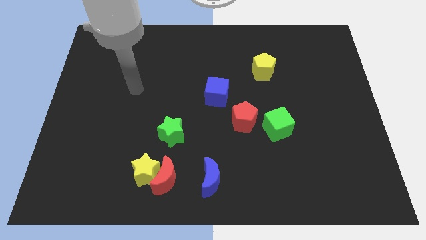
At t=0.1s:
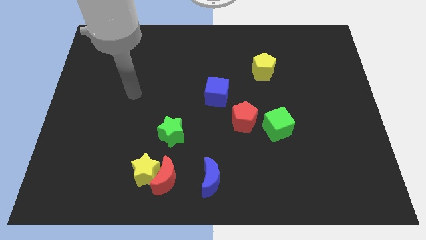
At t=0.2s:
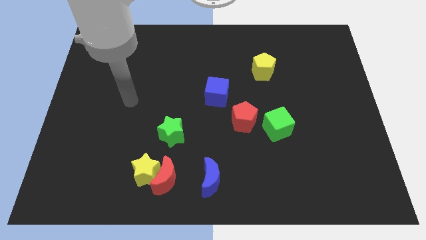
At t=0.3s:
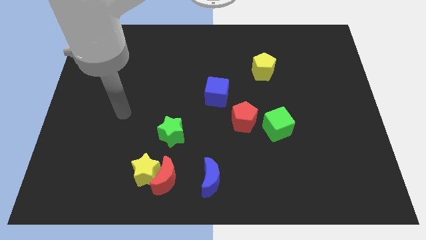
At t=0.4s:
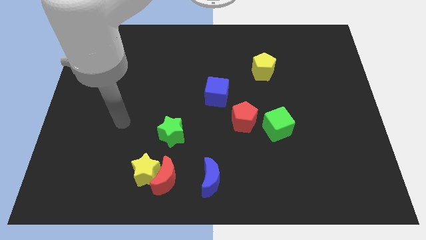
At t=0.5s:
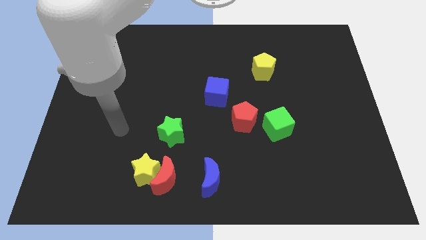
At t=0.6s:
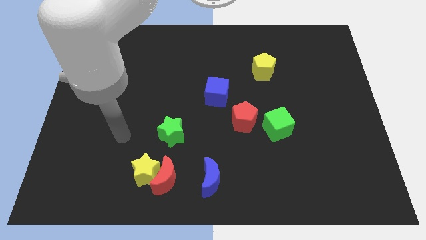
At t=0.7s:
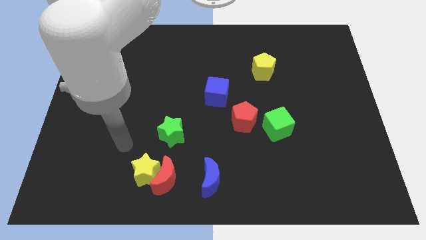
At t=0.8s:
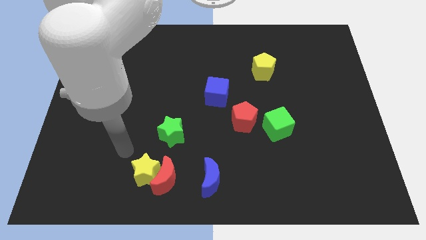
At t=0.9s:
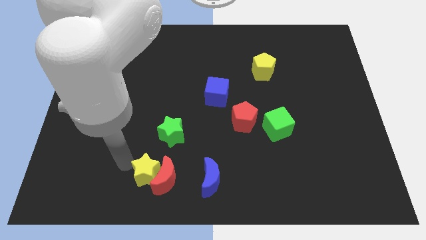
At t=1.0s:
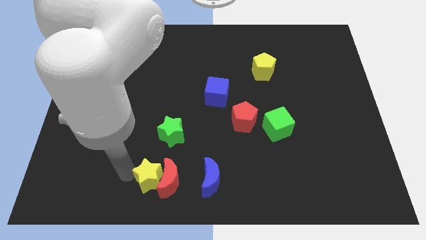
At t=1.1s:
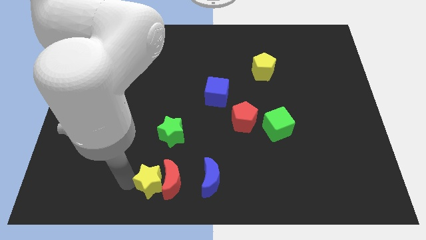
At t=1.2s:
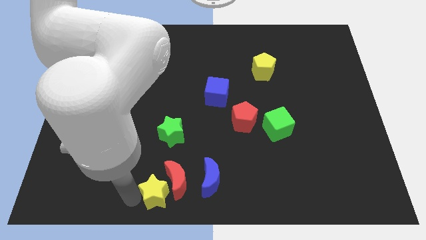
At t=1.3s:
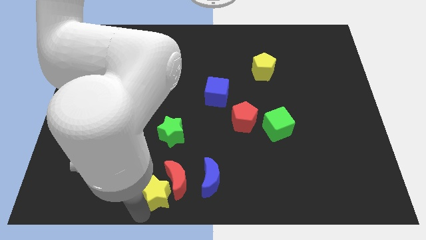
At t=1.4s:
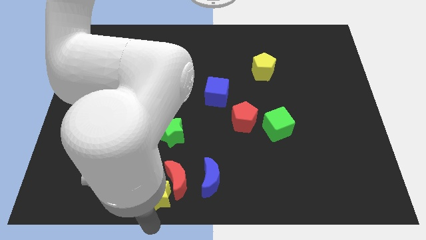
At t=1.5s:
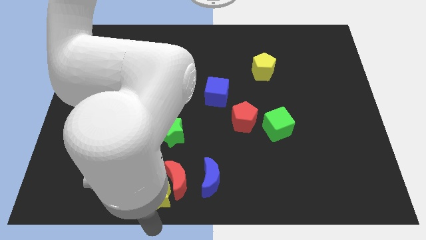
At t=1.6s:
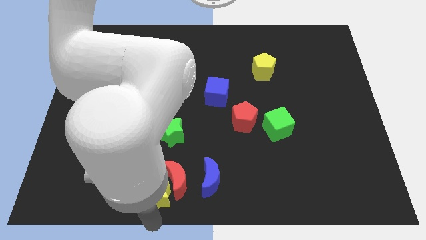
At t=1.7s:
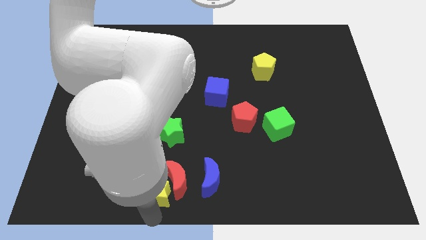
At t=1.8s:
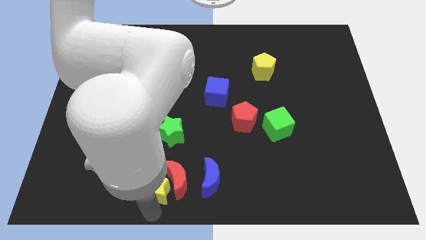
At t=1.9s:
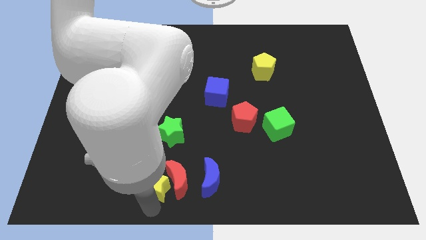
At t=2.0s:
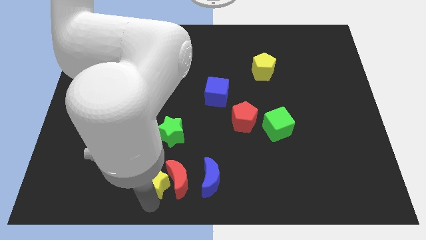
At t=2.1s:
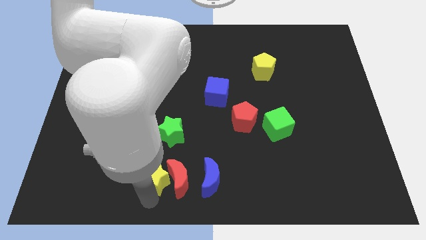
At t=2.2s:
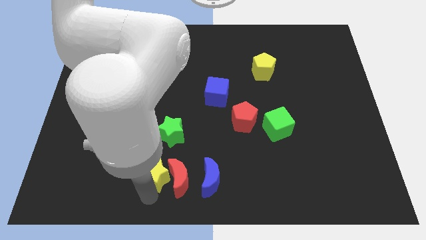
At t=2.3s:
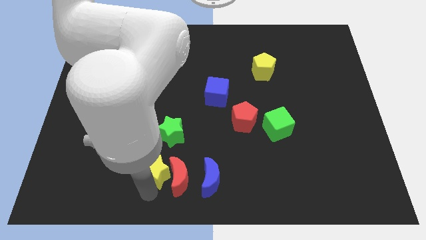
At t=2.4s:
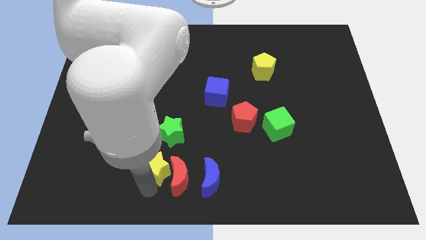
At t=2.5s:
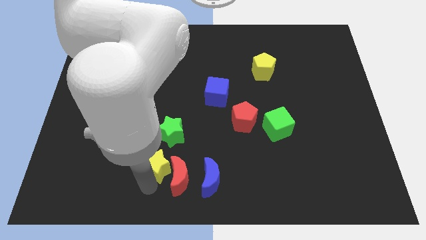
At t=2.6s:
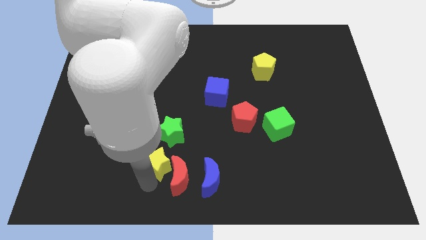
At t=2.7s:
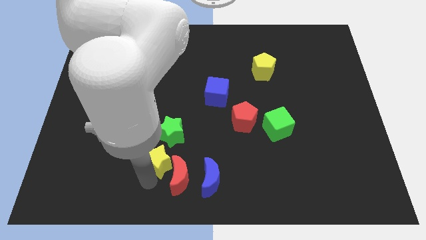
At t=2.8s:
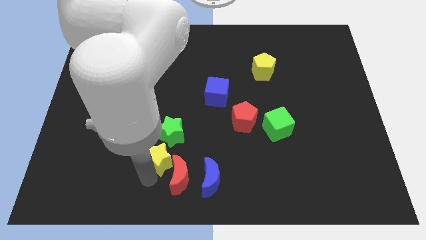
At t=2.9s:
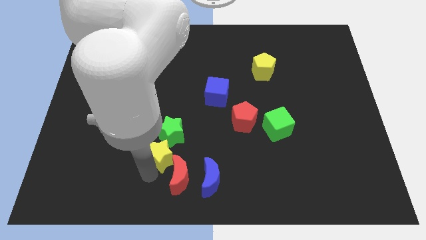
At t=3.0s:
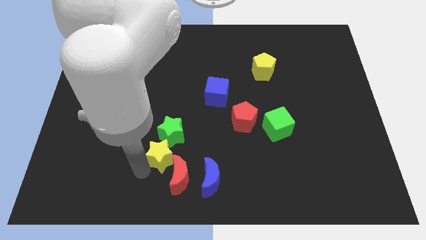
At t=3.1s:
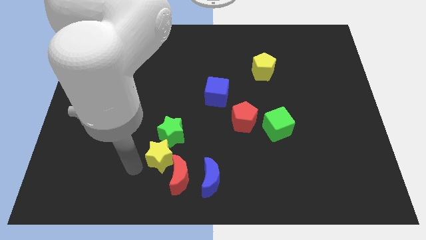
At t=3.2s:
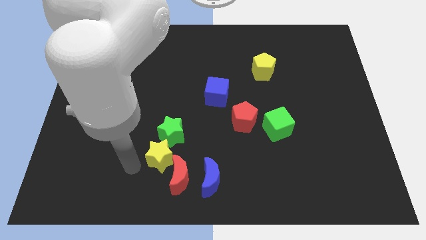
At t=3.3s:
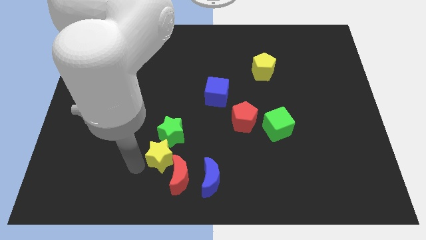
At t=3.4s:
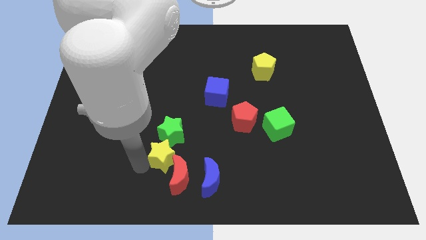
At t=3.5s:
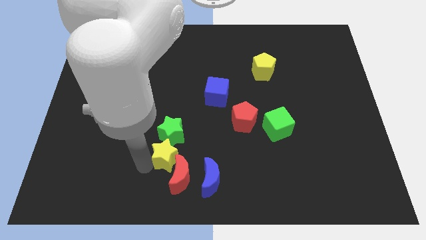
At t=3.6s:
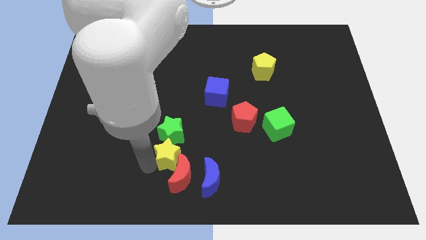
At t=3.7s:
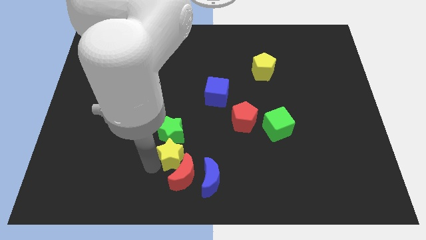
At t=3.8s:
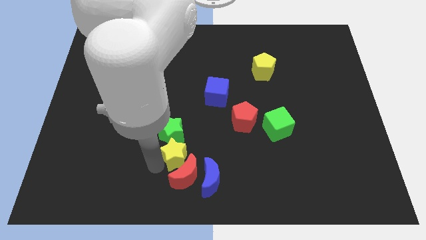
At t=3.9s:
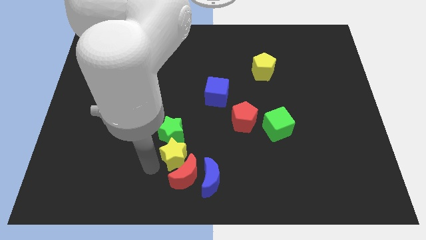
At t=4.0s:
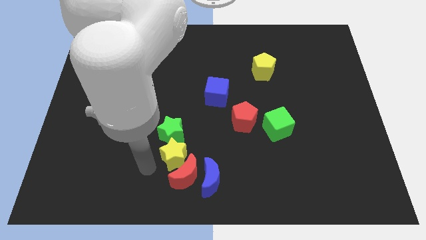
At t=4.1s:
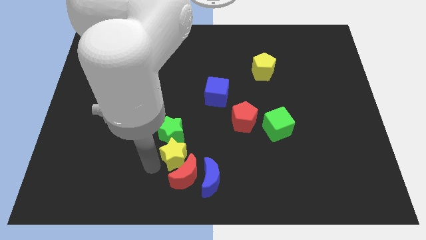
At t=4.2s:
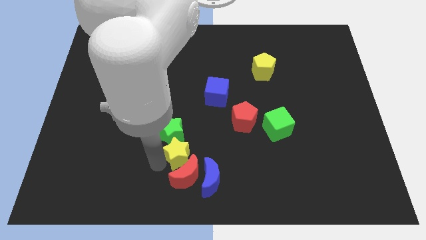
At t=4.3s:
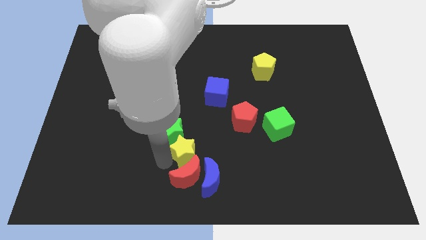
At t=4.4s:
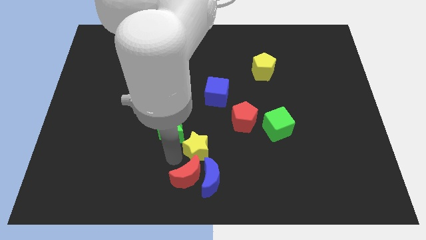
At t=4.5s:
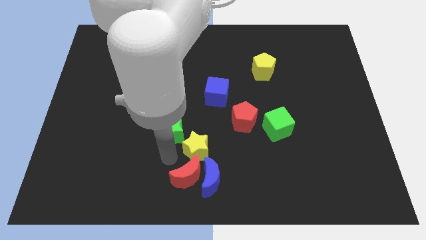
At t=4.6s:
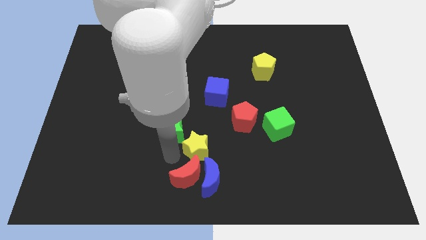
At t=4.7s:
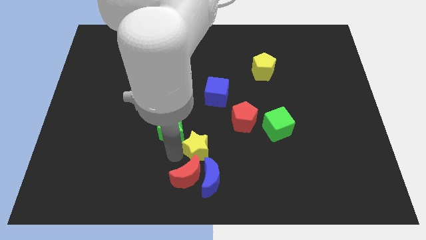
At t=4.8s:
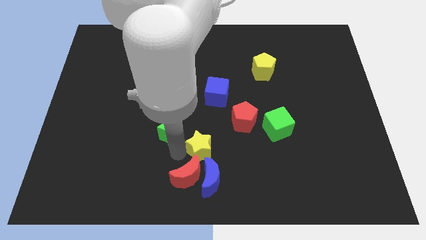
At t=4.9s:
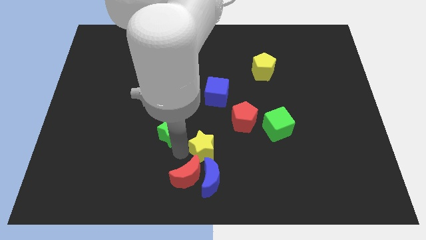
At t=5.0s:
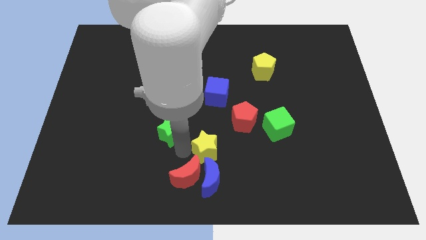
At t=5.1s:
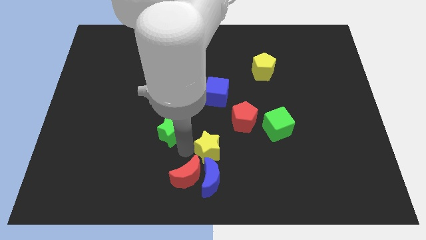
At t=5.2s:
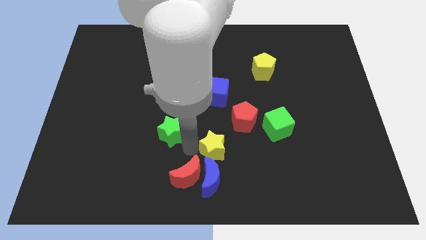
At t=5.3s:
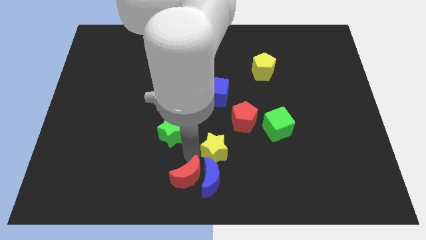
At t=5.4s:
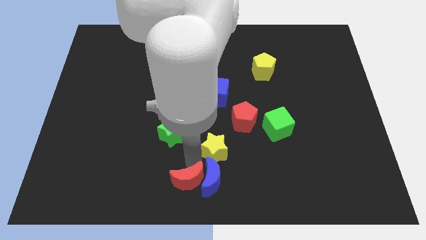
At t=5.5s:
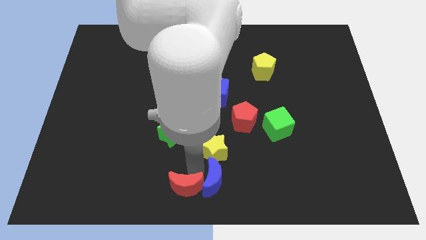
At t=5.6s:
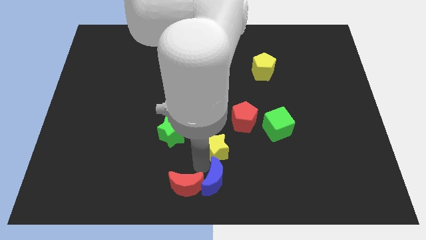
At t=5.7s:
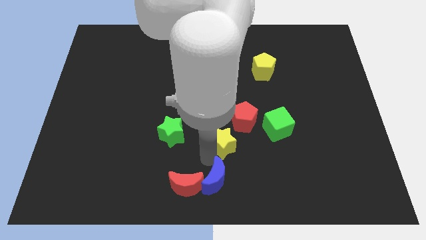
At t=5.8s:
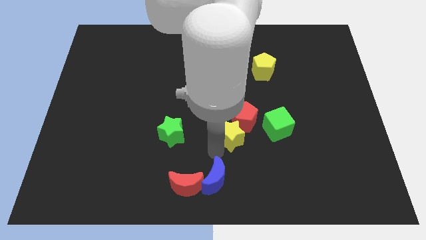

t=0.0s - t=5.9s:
slide the yellow star to the red pentagon

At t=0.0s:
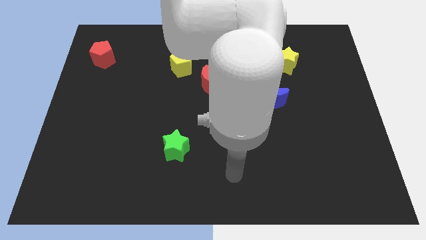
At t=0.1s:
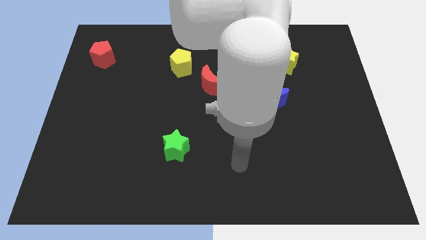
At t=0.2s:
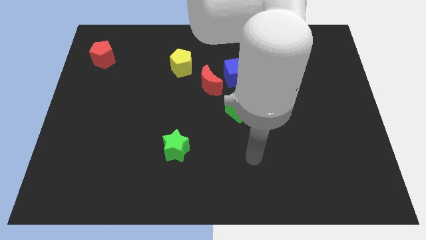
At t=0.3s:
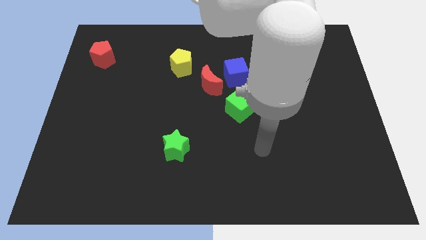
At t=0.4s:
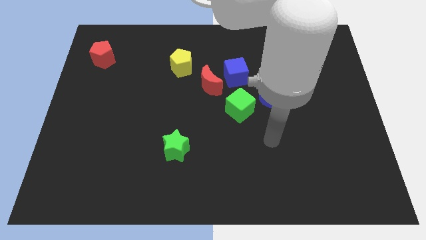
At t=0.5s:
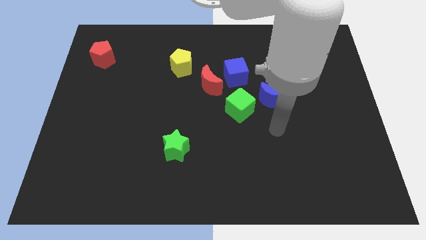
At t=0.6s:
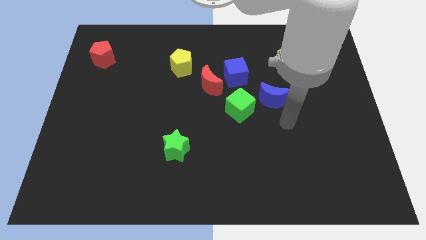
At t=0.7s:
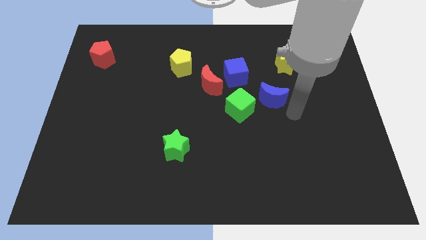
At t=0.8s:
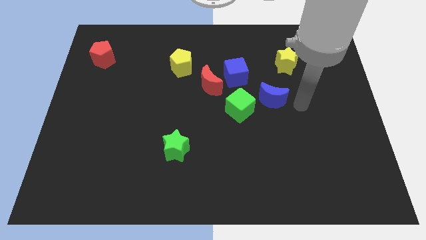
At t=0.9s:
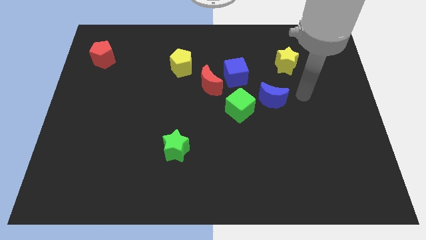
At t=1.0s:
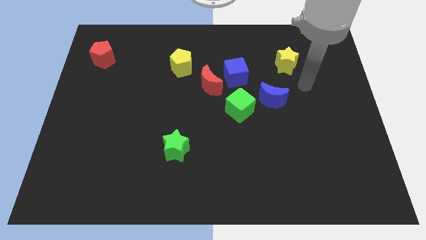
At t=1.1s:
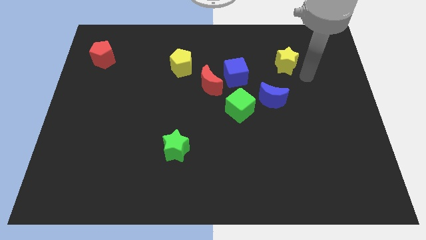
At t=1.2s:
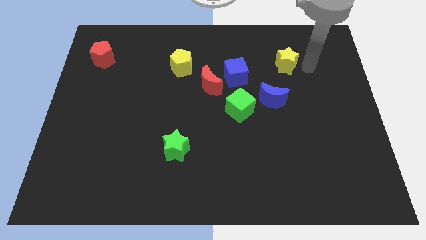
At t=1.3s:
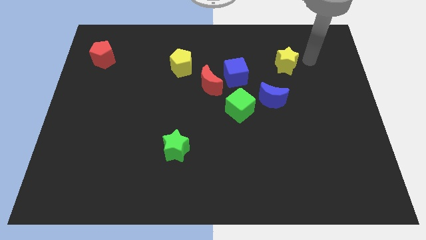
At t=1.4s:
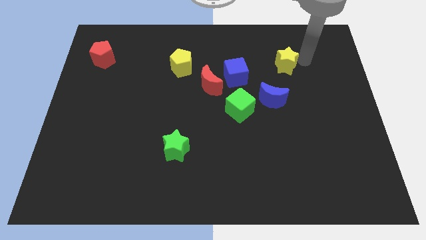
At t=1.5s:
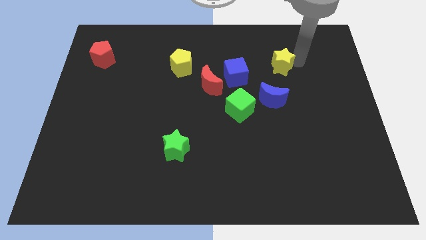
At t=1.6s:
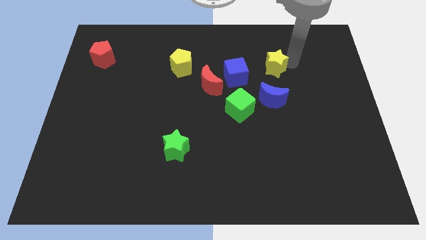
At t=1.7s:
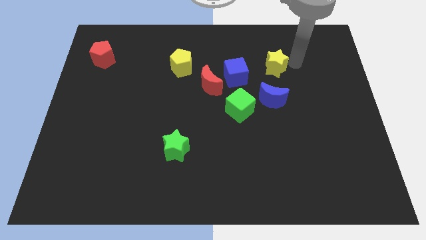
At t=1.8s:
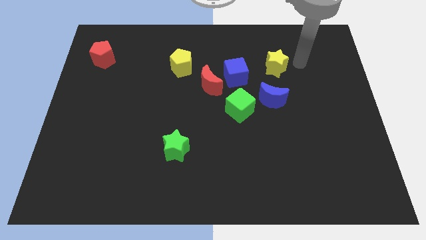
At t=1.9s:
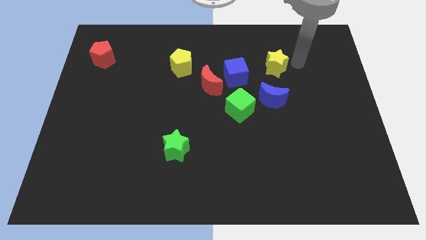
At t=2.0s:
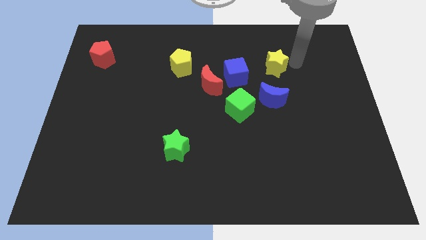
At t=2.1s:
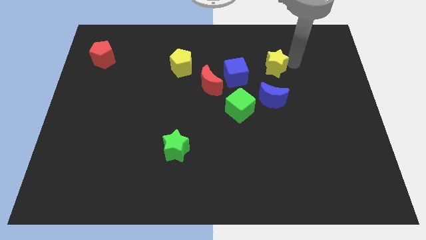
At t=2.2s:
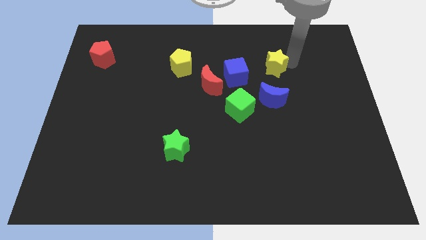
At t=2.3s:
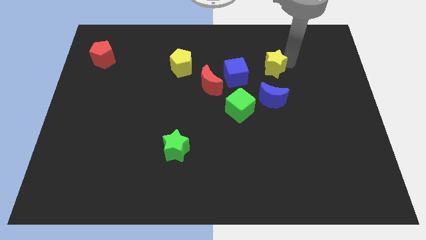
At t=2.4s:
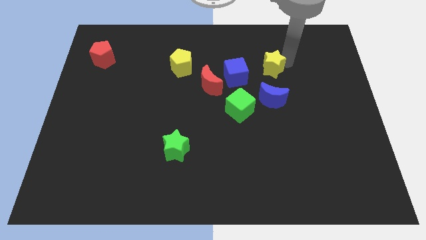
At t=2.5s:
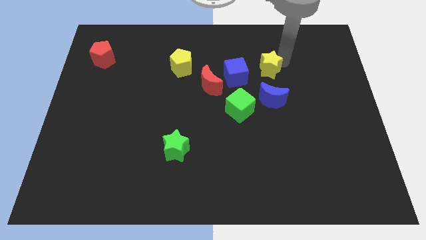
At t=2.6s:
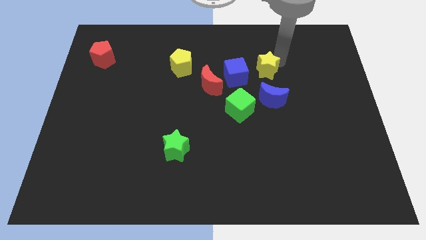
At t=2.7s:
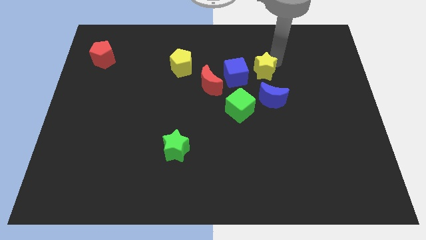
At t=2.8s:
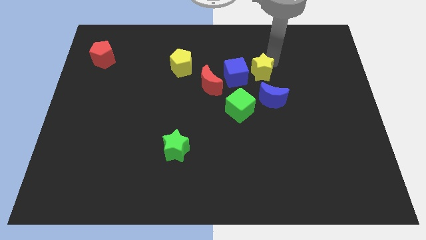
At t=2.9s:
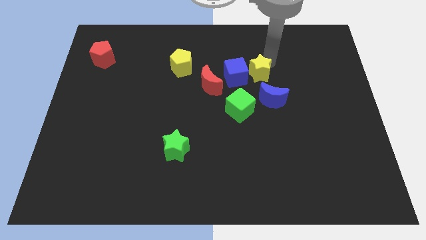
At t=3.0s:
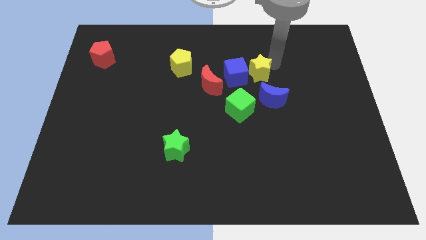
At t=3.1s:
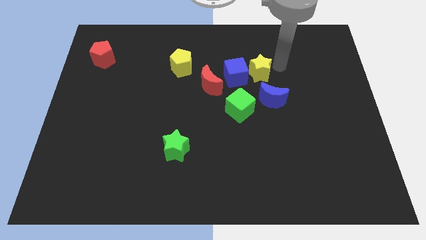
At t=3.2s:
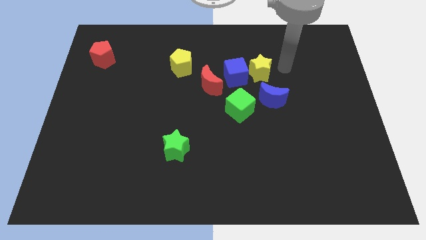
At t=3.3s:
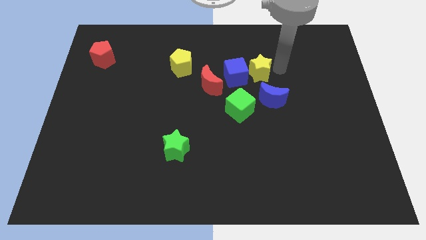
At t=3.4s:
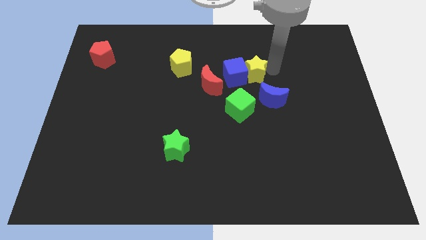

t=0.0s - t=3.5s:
slide the yellow star next to the blue cube
